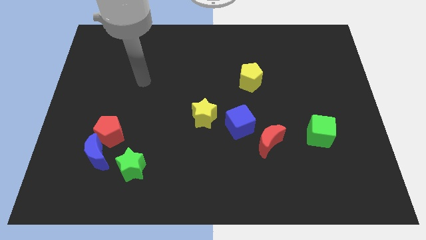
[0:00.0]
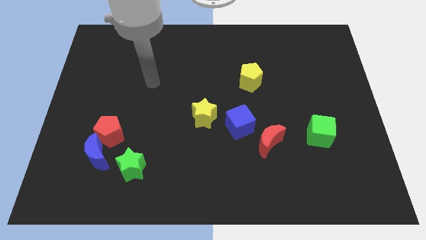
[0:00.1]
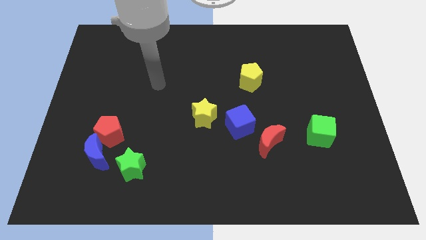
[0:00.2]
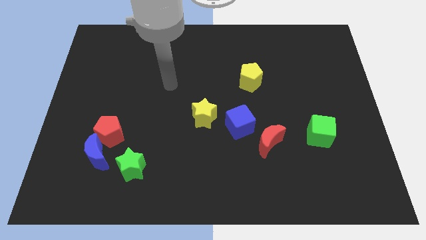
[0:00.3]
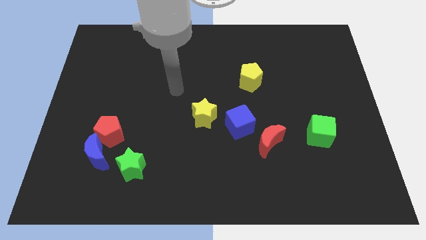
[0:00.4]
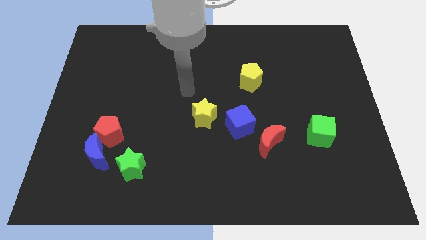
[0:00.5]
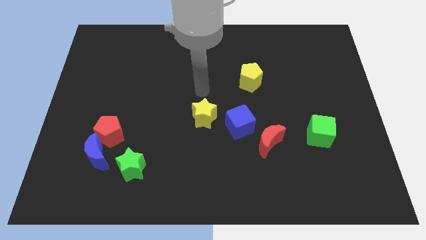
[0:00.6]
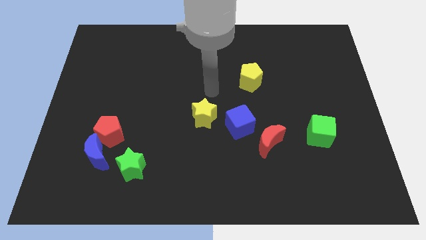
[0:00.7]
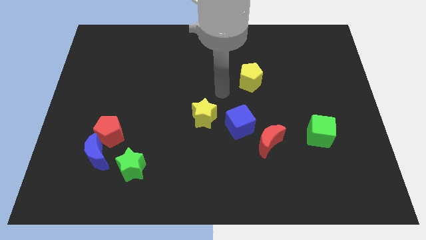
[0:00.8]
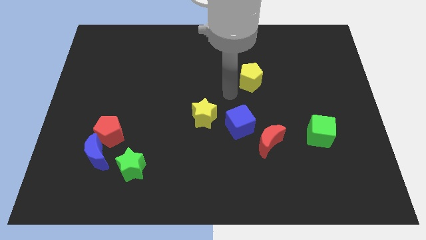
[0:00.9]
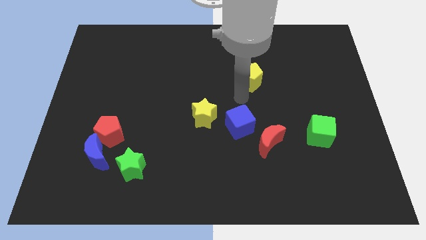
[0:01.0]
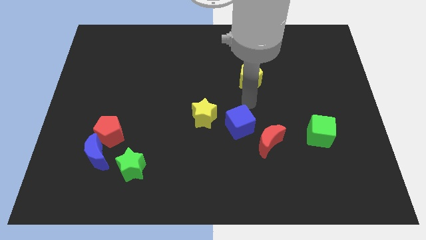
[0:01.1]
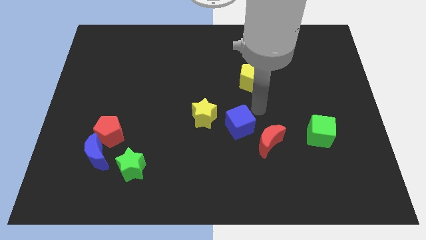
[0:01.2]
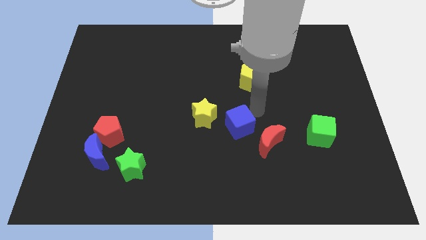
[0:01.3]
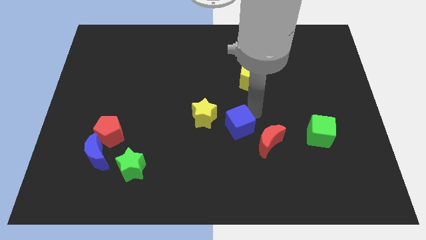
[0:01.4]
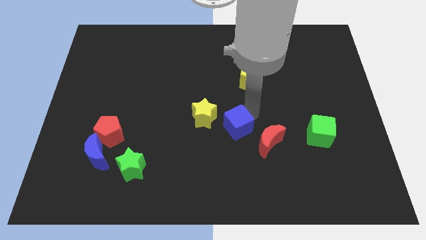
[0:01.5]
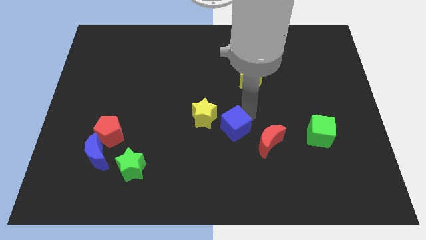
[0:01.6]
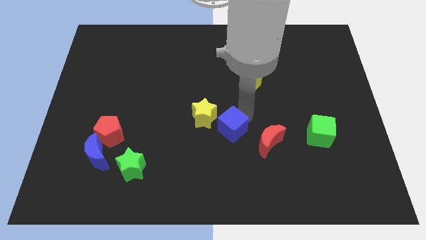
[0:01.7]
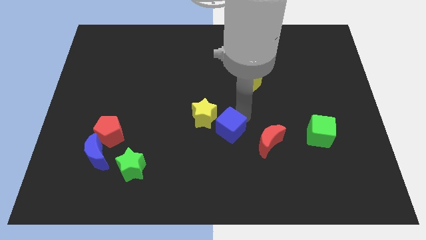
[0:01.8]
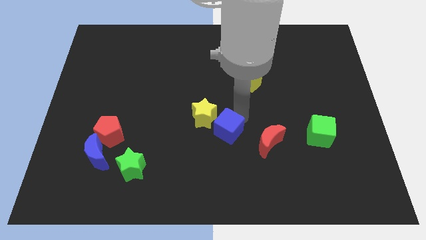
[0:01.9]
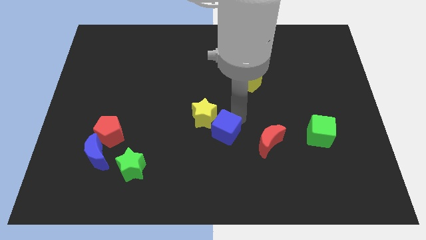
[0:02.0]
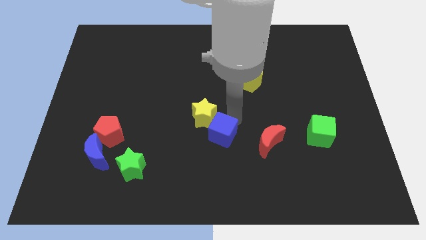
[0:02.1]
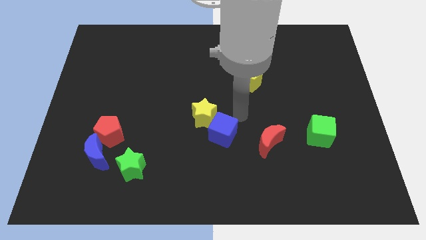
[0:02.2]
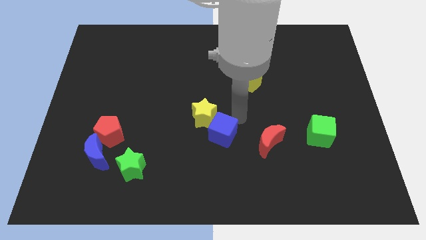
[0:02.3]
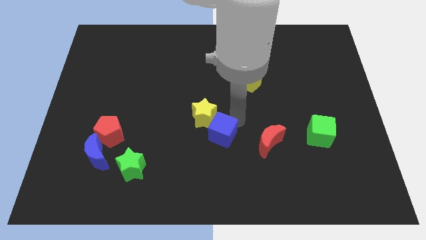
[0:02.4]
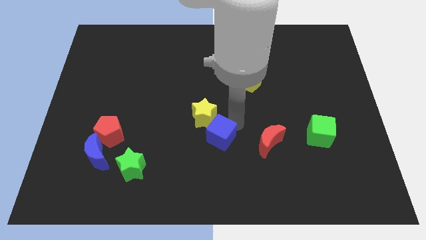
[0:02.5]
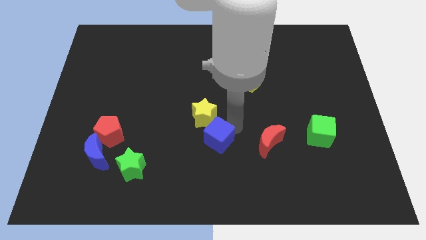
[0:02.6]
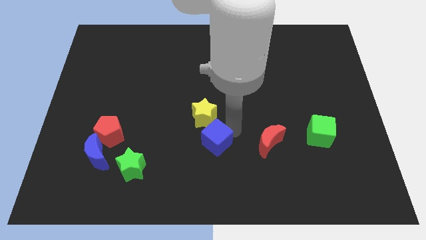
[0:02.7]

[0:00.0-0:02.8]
push the blue cube down and left diagonally a little

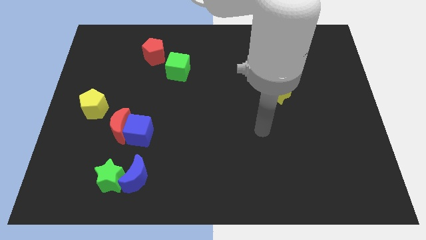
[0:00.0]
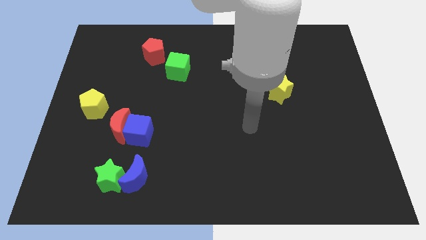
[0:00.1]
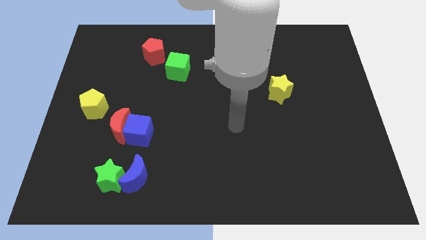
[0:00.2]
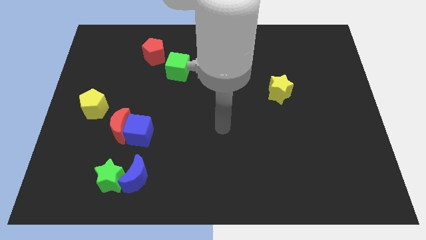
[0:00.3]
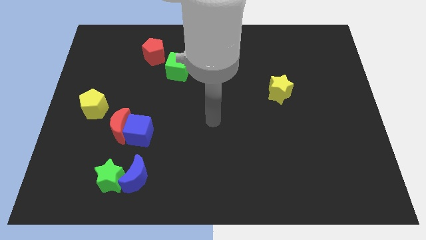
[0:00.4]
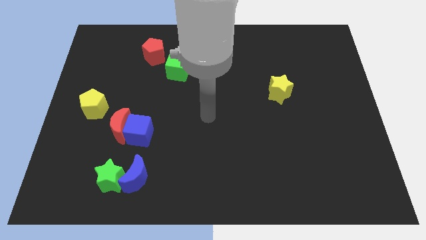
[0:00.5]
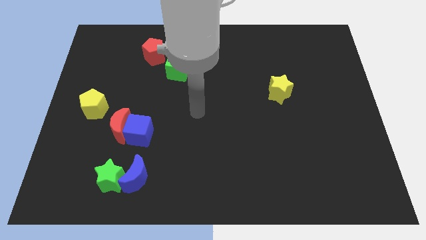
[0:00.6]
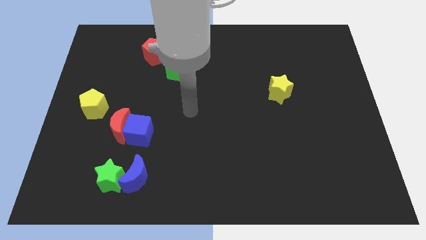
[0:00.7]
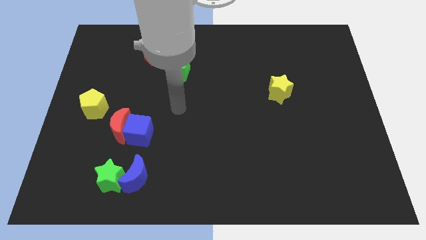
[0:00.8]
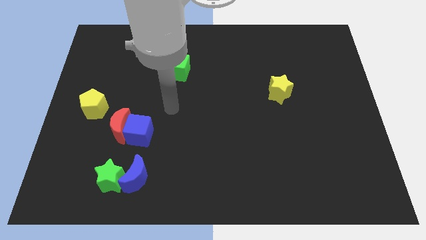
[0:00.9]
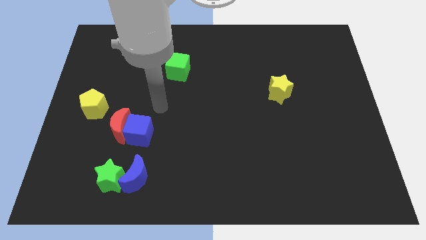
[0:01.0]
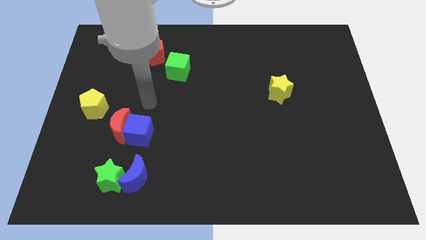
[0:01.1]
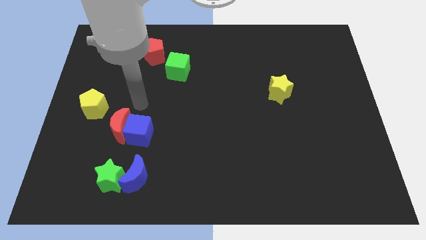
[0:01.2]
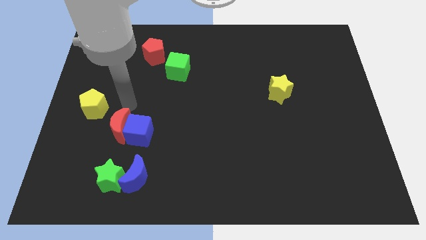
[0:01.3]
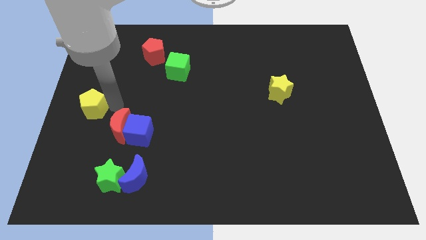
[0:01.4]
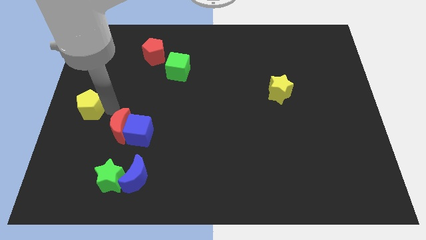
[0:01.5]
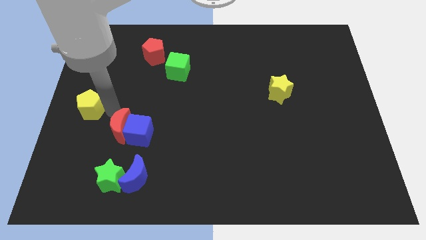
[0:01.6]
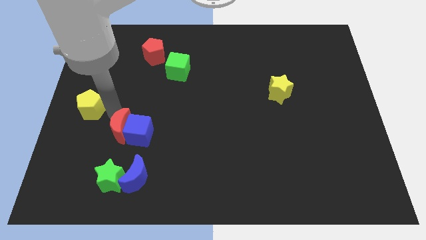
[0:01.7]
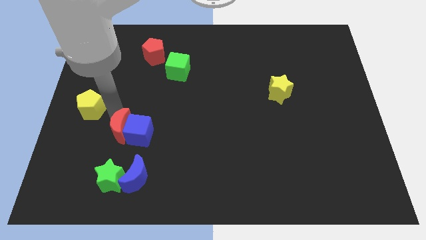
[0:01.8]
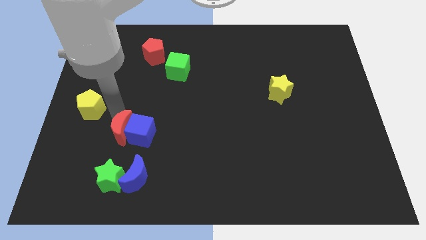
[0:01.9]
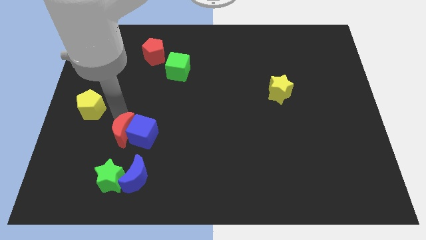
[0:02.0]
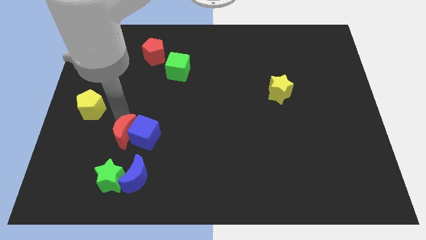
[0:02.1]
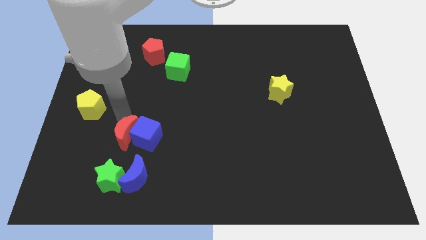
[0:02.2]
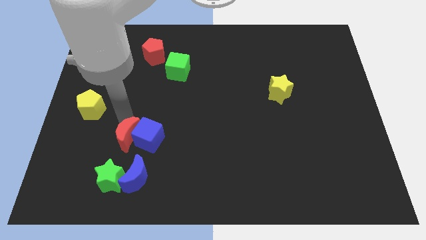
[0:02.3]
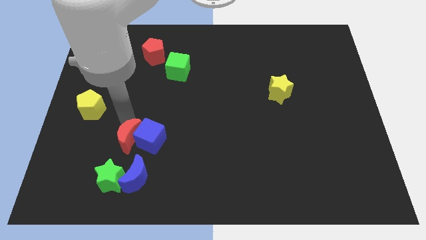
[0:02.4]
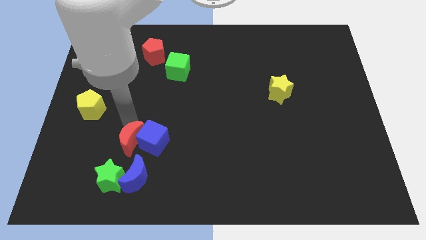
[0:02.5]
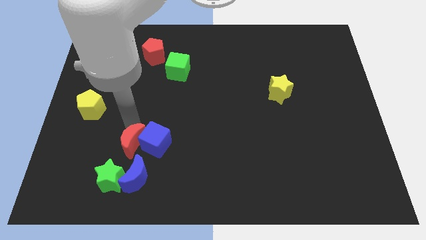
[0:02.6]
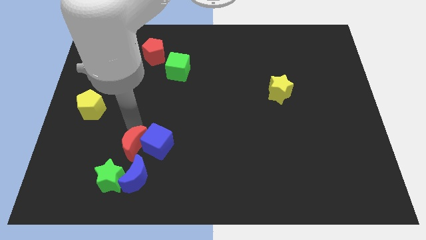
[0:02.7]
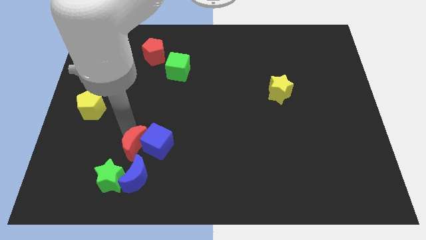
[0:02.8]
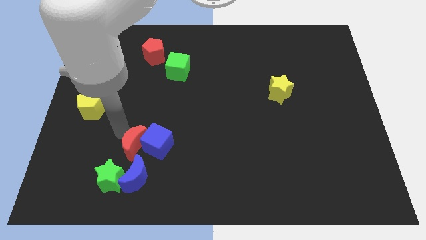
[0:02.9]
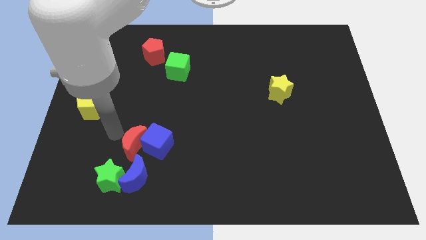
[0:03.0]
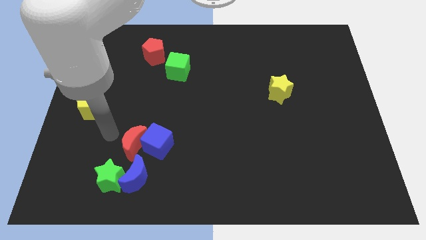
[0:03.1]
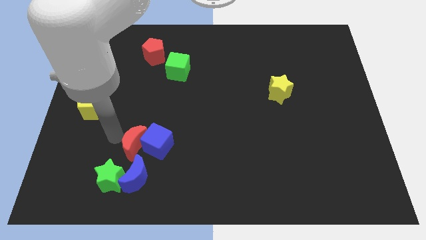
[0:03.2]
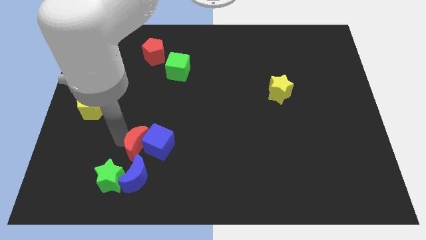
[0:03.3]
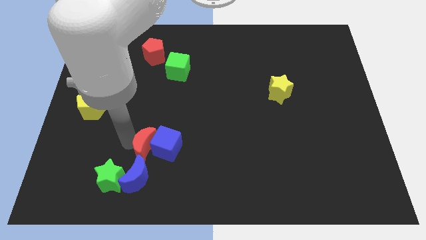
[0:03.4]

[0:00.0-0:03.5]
push the red moon a little diagonally downwards and right

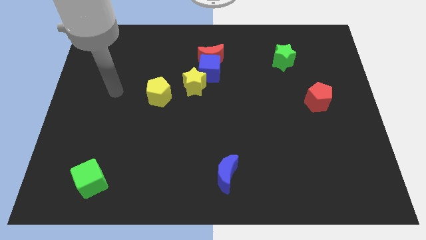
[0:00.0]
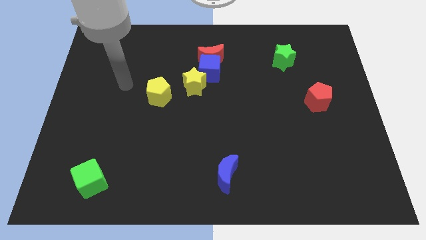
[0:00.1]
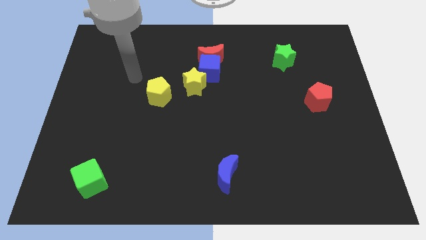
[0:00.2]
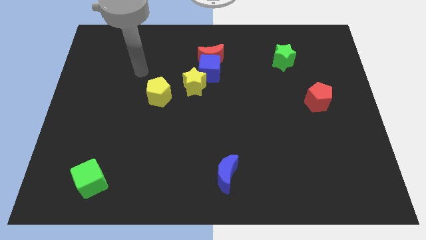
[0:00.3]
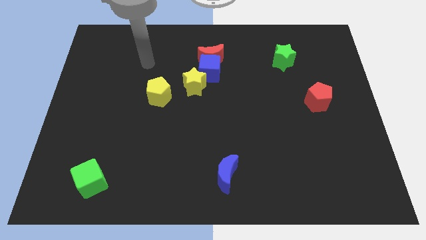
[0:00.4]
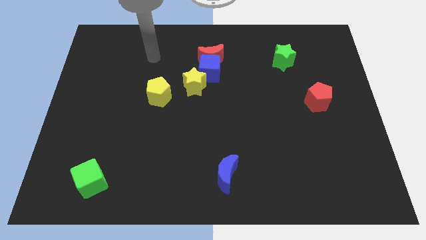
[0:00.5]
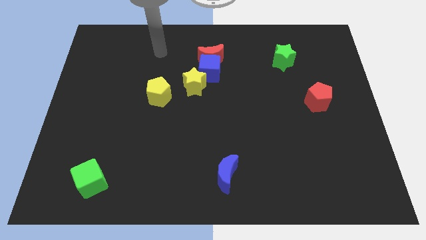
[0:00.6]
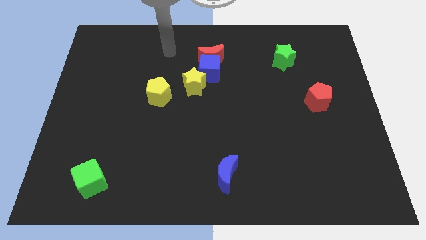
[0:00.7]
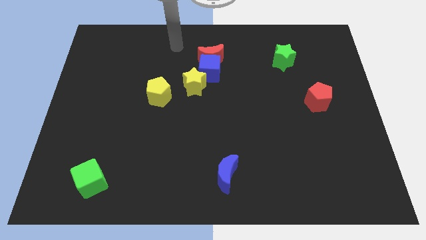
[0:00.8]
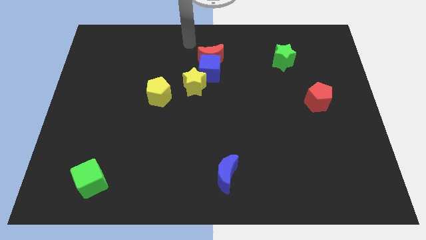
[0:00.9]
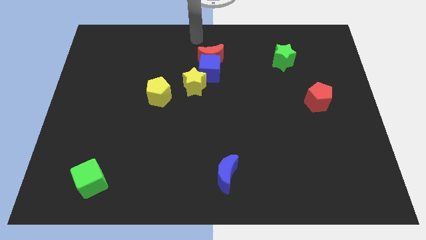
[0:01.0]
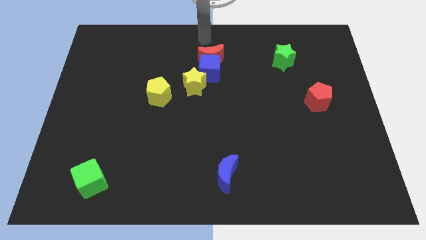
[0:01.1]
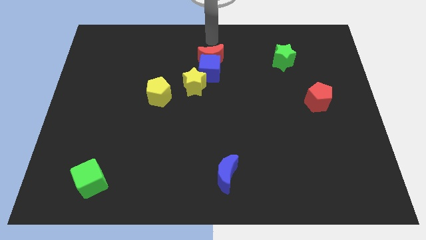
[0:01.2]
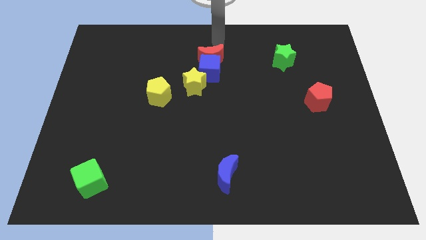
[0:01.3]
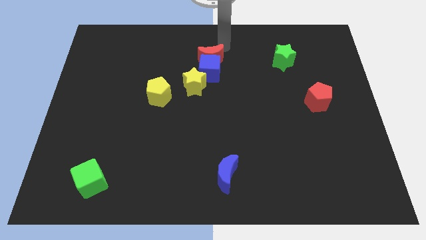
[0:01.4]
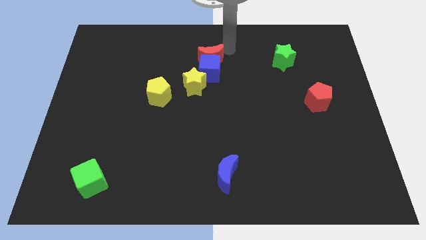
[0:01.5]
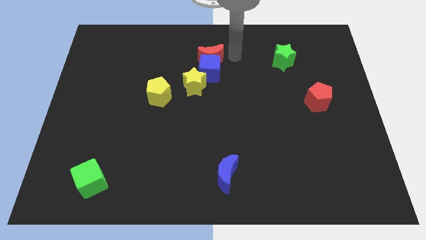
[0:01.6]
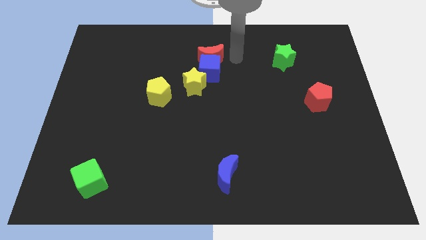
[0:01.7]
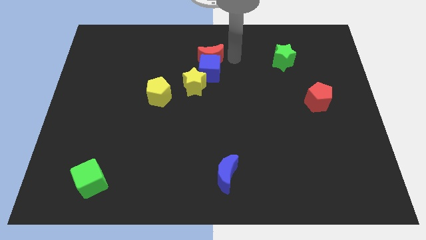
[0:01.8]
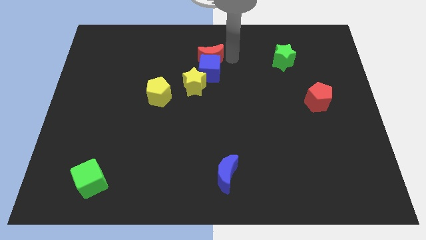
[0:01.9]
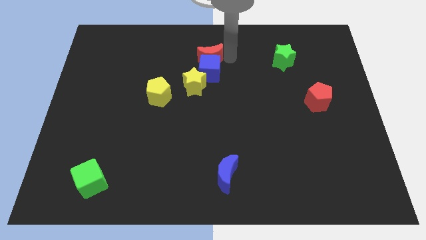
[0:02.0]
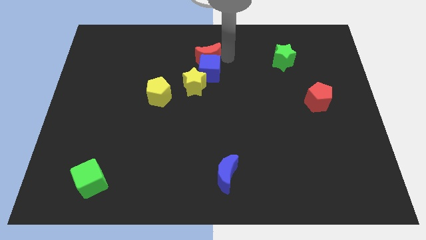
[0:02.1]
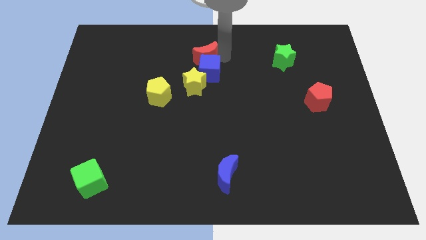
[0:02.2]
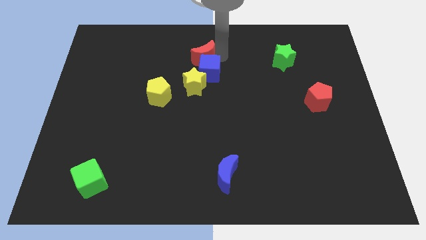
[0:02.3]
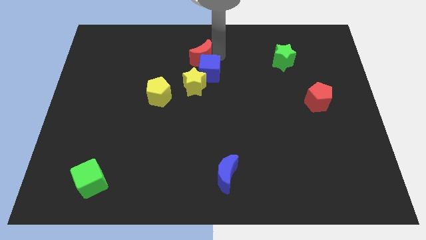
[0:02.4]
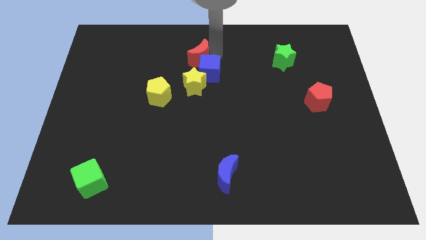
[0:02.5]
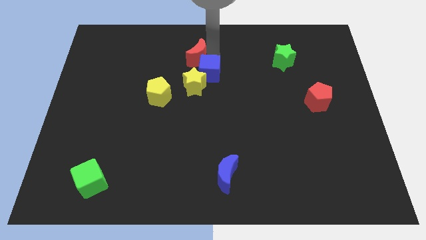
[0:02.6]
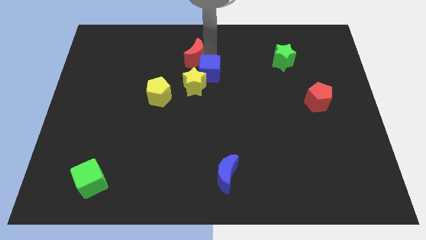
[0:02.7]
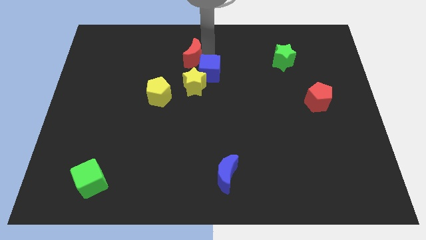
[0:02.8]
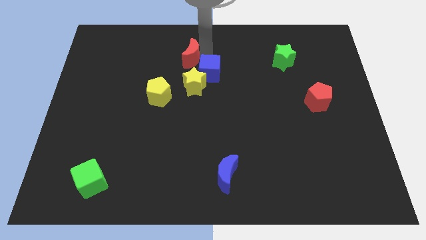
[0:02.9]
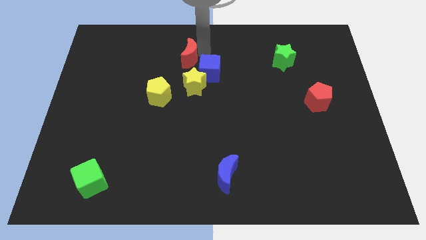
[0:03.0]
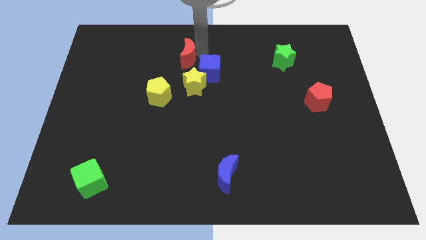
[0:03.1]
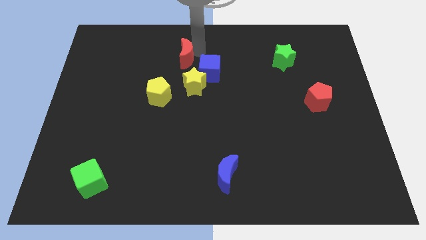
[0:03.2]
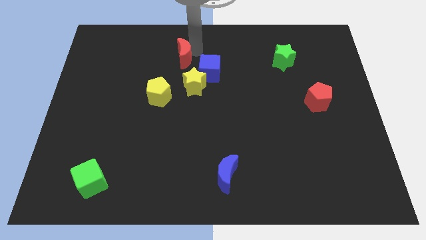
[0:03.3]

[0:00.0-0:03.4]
slightly push the red moon left
